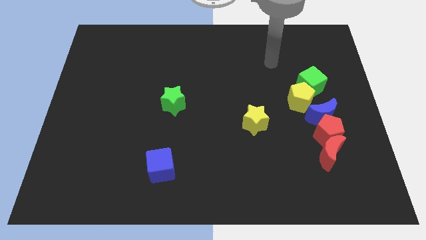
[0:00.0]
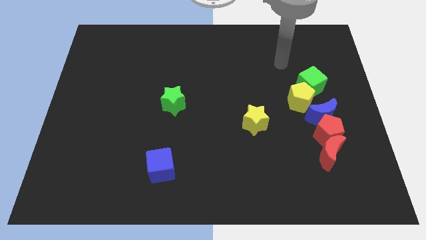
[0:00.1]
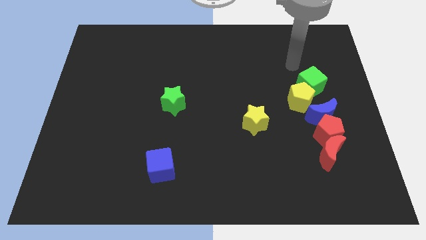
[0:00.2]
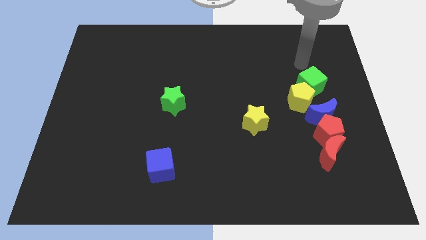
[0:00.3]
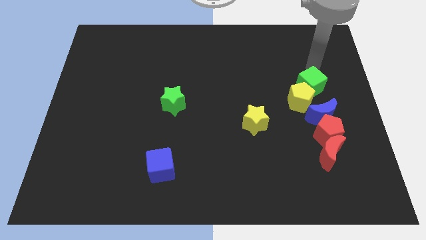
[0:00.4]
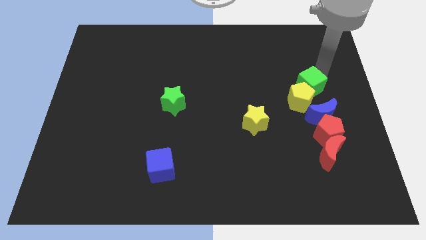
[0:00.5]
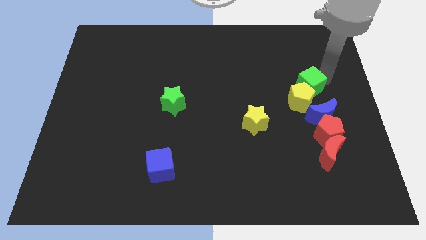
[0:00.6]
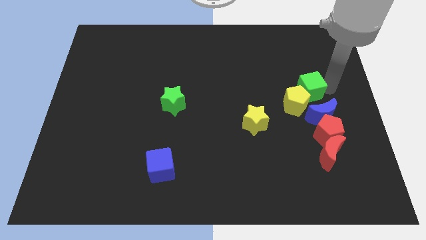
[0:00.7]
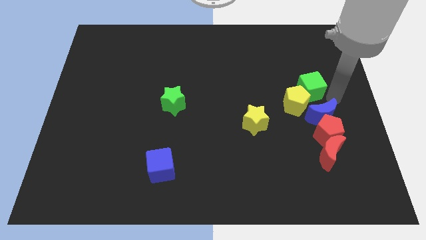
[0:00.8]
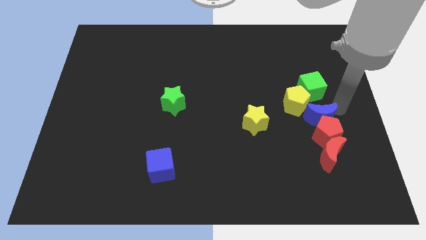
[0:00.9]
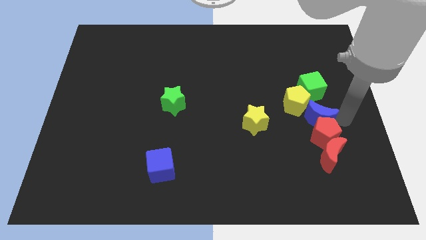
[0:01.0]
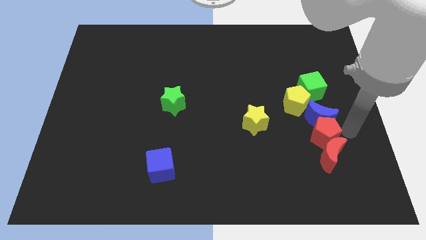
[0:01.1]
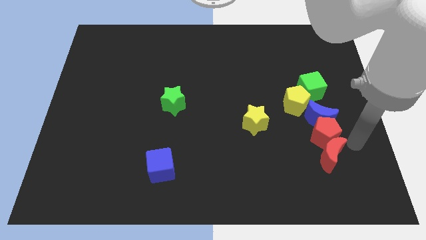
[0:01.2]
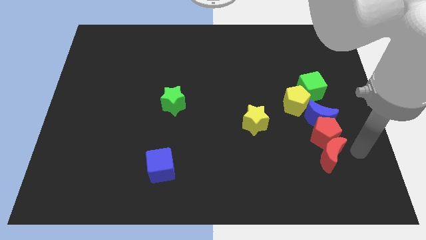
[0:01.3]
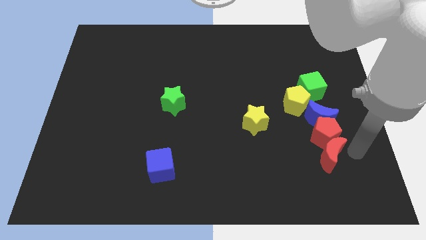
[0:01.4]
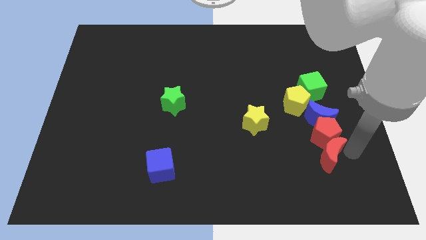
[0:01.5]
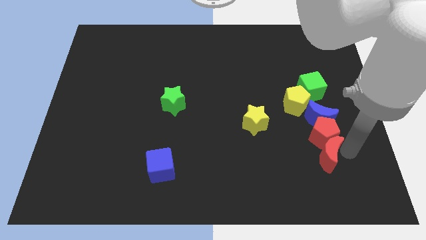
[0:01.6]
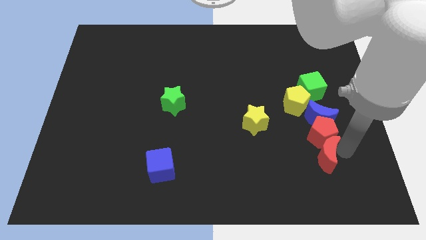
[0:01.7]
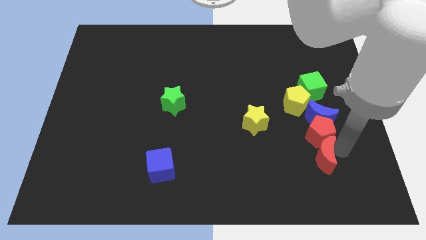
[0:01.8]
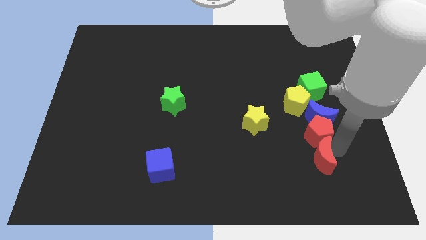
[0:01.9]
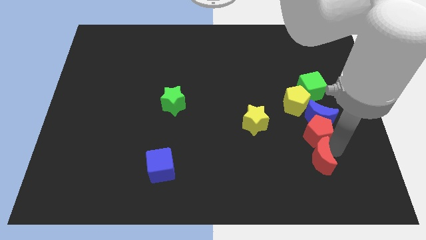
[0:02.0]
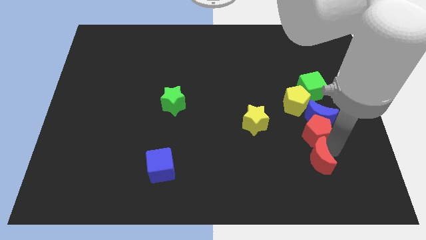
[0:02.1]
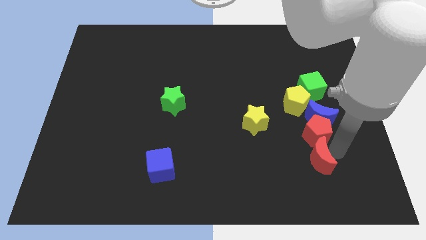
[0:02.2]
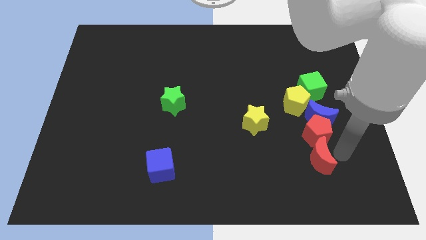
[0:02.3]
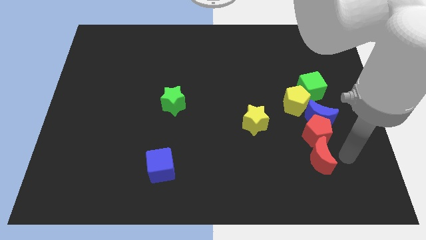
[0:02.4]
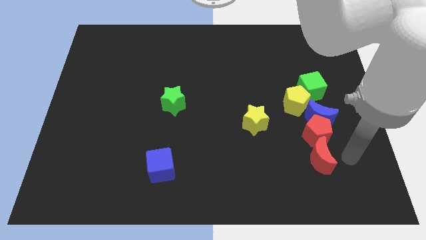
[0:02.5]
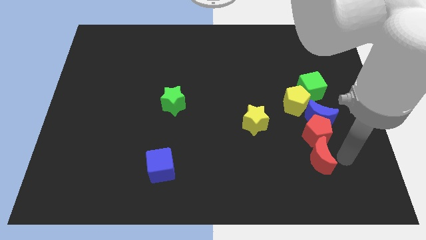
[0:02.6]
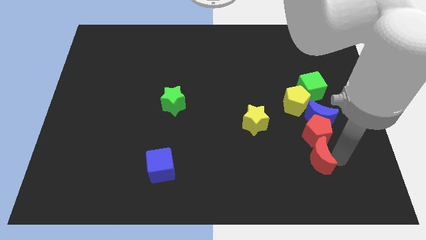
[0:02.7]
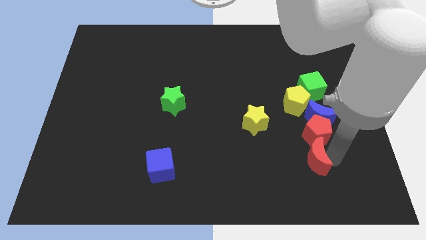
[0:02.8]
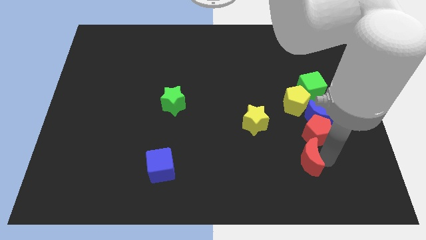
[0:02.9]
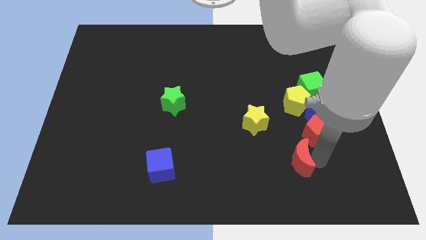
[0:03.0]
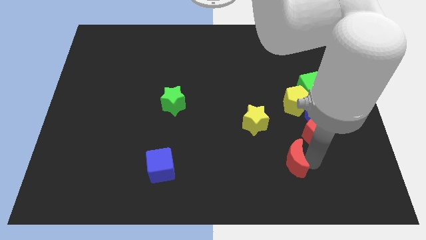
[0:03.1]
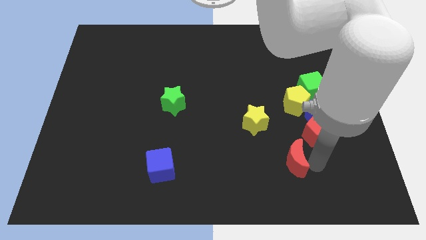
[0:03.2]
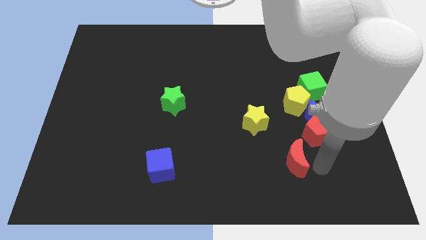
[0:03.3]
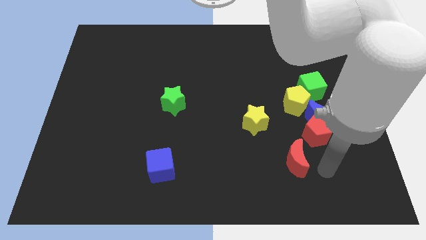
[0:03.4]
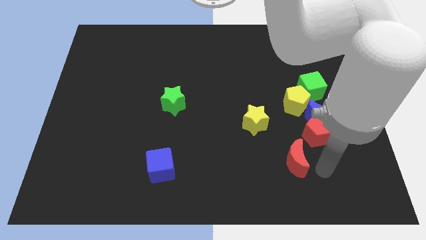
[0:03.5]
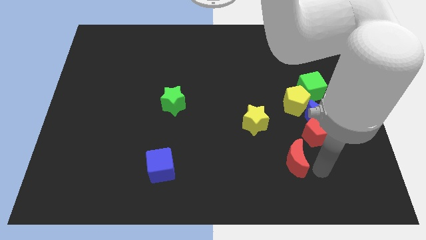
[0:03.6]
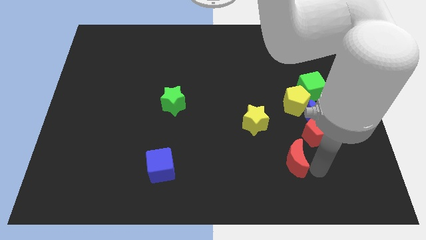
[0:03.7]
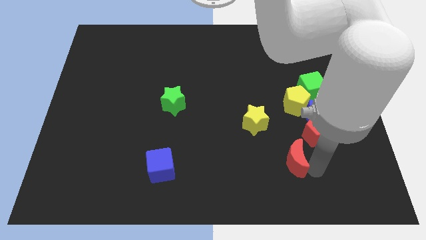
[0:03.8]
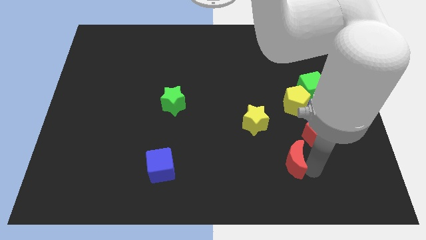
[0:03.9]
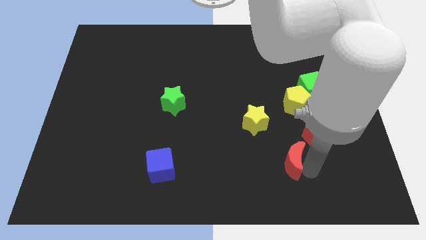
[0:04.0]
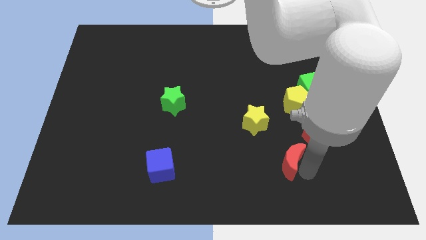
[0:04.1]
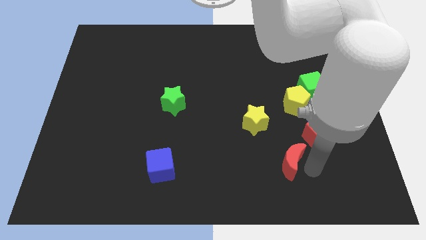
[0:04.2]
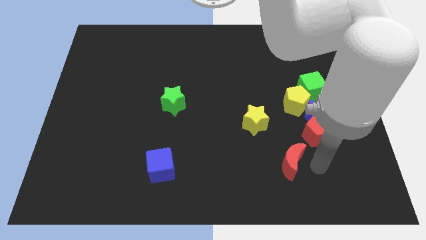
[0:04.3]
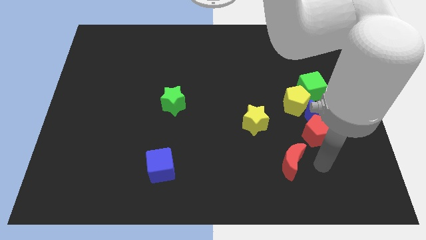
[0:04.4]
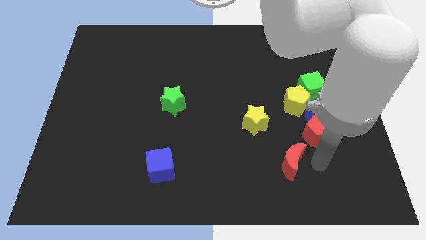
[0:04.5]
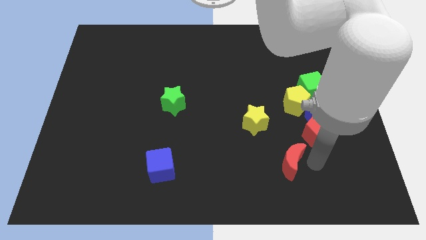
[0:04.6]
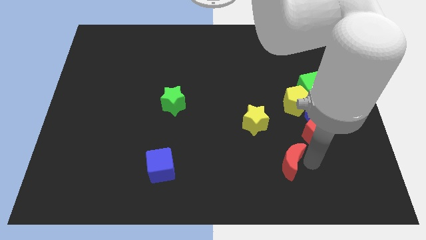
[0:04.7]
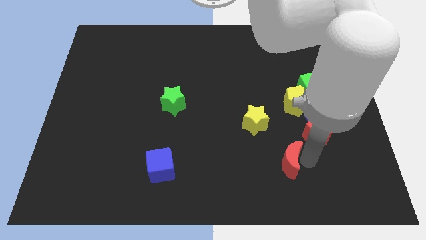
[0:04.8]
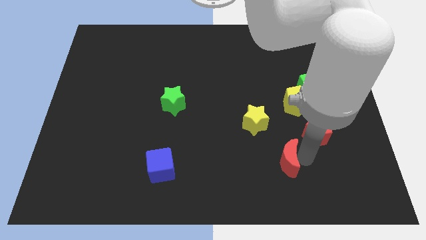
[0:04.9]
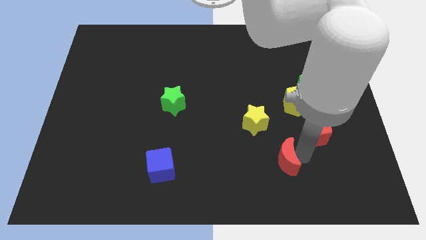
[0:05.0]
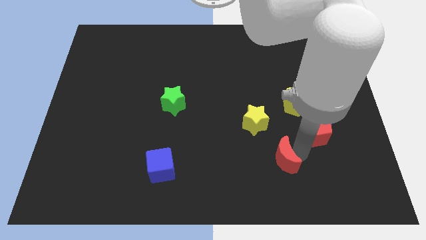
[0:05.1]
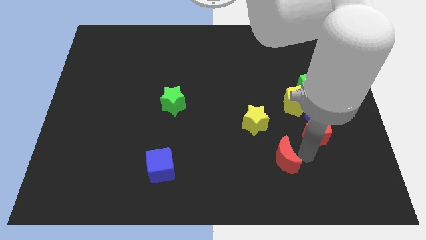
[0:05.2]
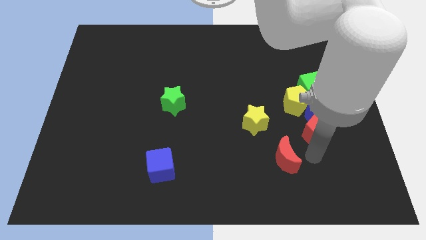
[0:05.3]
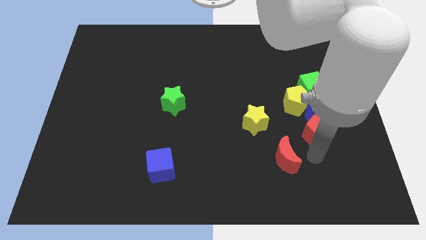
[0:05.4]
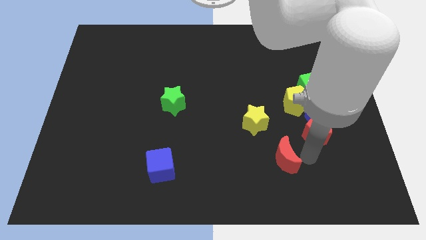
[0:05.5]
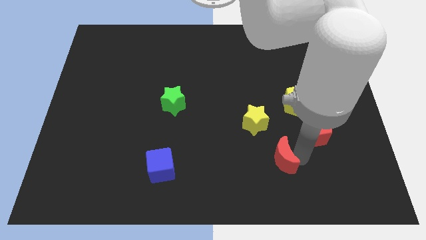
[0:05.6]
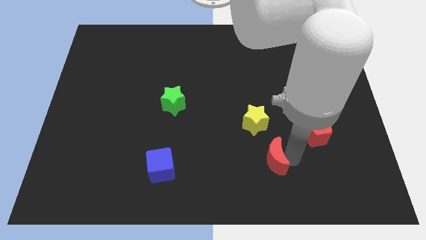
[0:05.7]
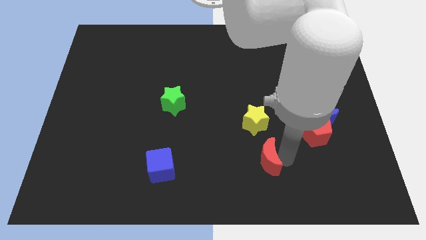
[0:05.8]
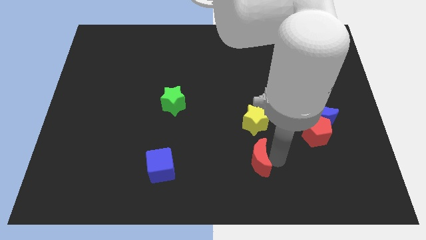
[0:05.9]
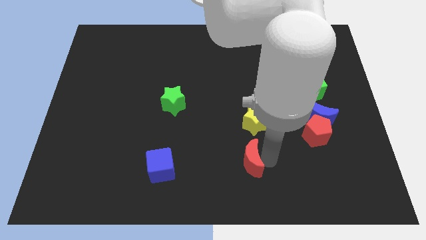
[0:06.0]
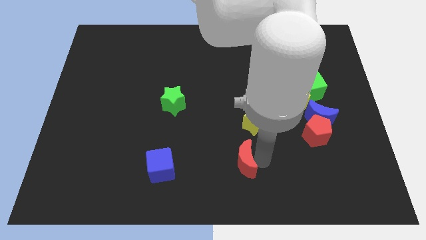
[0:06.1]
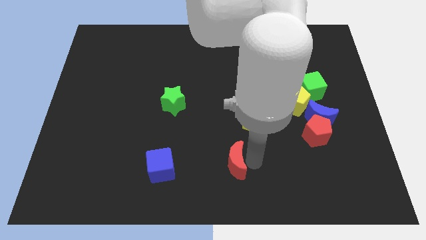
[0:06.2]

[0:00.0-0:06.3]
move the red moon to the left

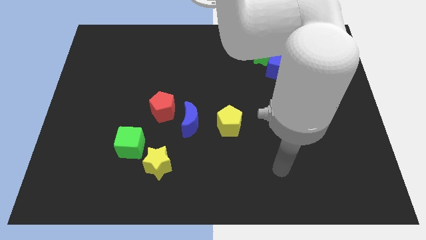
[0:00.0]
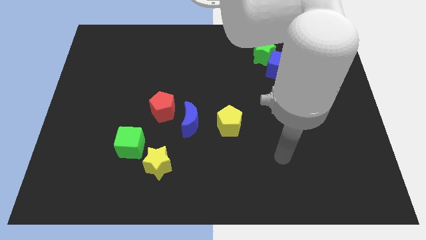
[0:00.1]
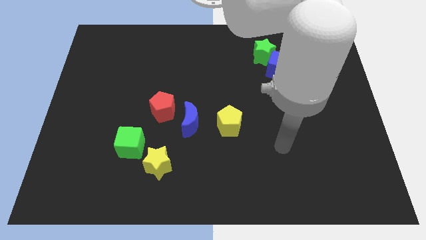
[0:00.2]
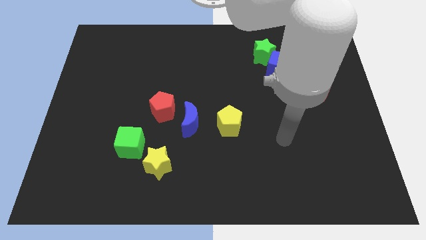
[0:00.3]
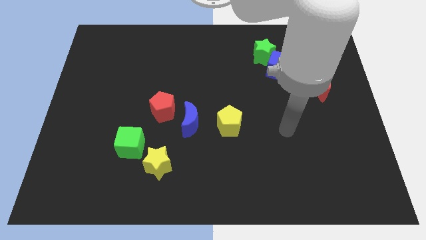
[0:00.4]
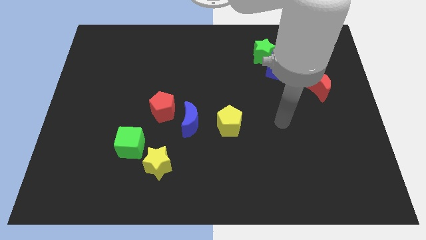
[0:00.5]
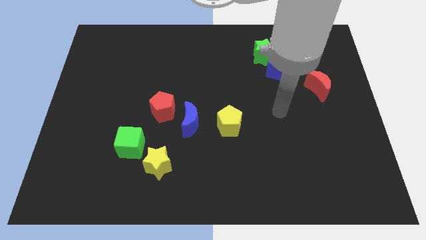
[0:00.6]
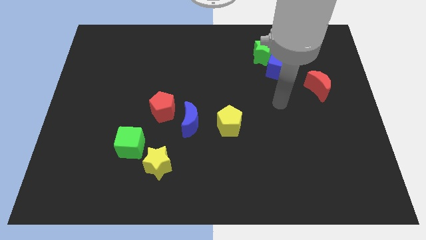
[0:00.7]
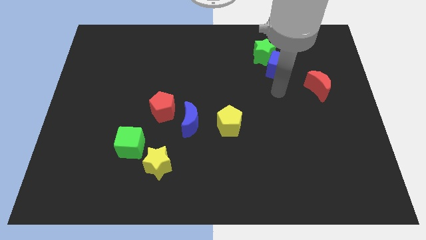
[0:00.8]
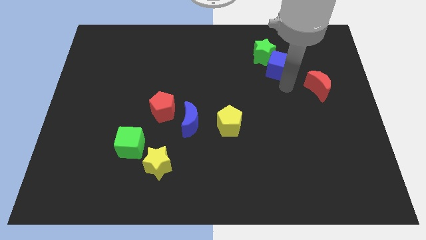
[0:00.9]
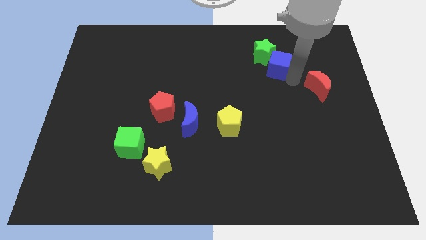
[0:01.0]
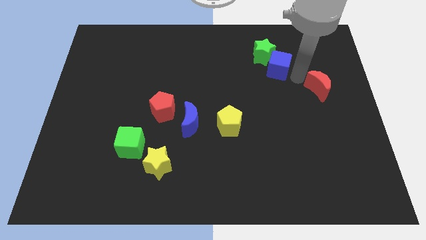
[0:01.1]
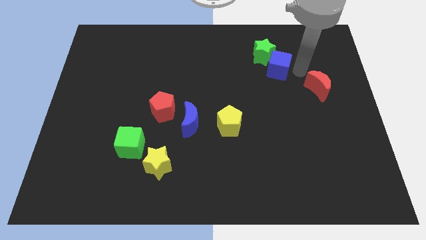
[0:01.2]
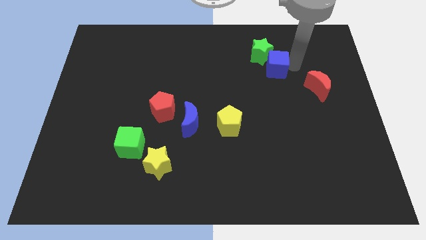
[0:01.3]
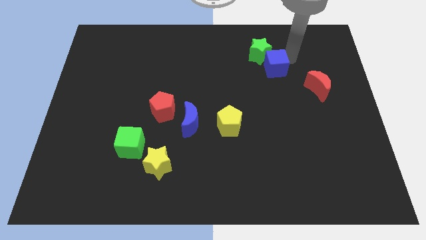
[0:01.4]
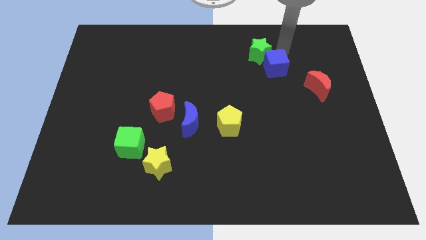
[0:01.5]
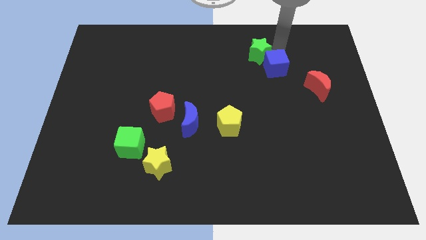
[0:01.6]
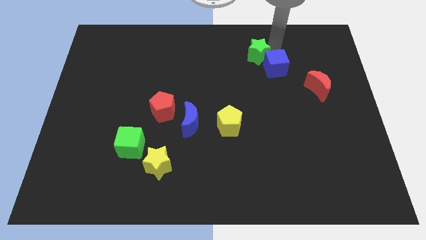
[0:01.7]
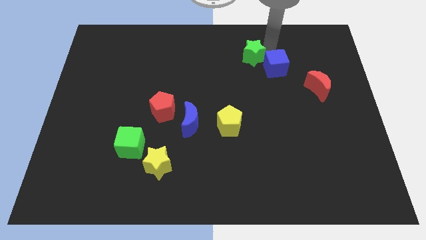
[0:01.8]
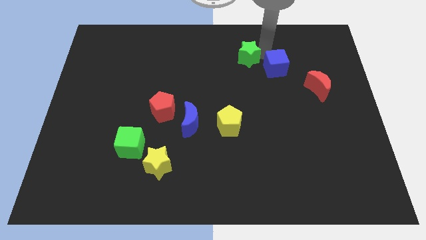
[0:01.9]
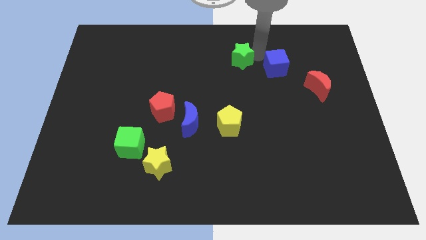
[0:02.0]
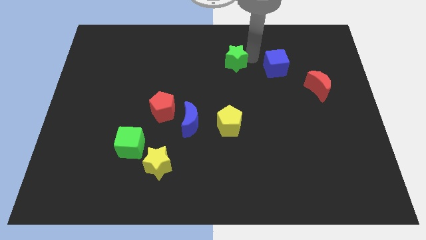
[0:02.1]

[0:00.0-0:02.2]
slightly move the green star left
